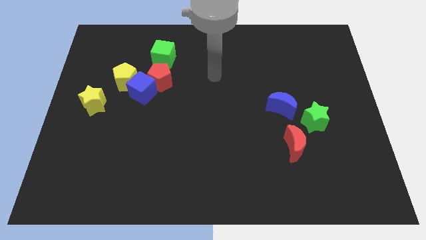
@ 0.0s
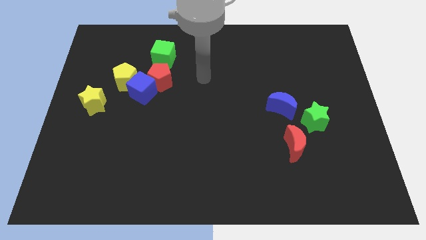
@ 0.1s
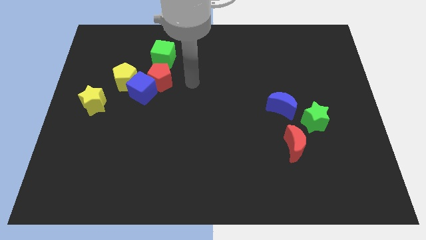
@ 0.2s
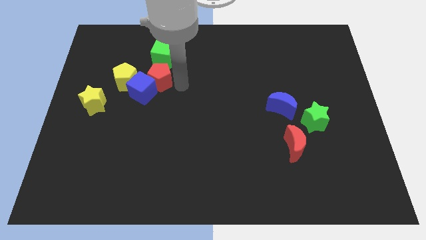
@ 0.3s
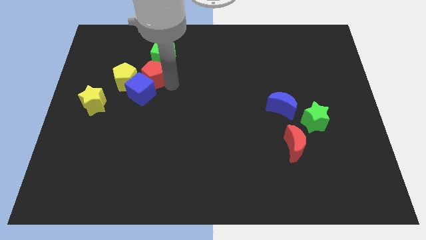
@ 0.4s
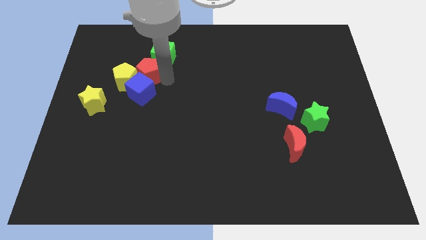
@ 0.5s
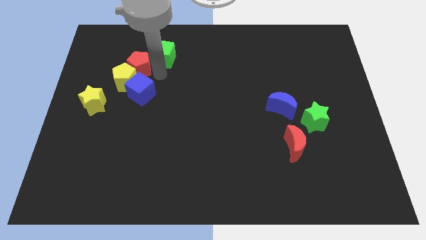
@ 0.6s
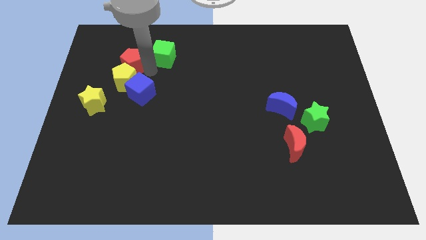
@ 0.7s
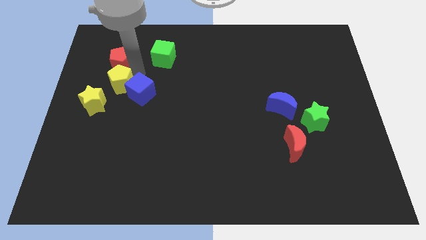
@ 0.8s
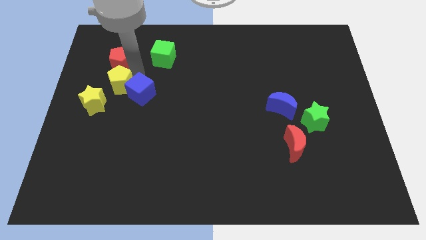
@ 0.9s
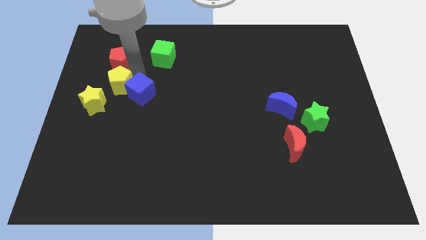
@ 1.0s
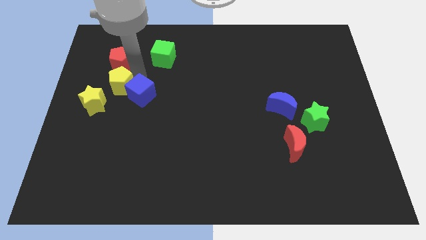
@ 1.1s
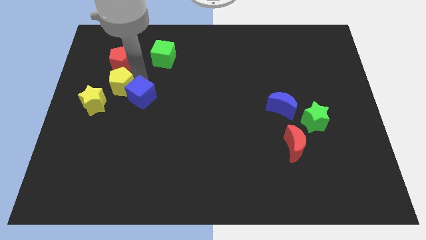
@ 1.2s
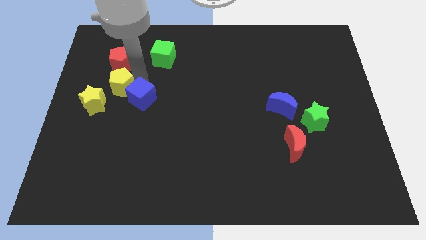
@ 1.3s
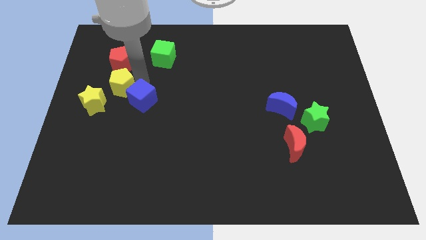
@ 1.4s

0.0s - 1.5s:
separate the blue cube from the red pentagon and yellow pentagon

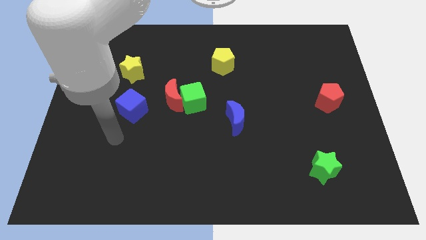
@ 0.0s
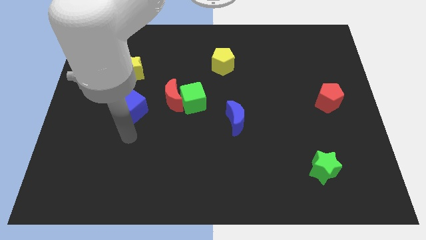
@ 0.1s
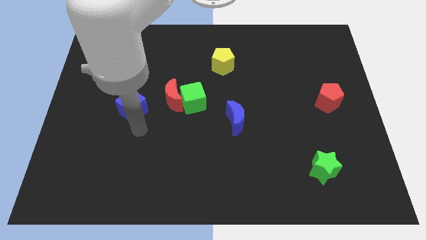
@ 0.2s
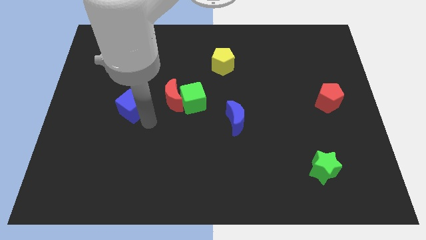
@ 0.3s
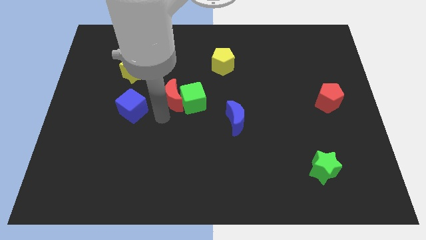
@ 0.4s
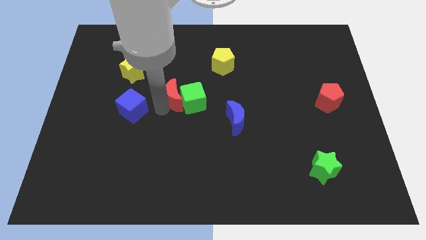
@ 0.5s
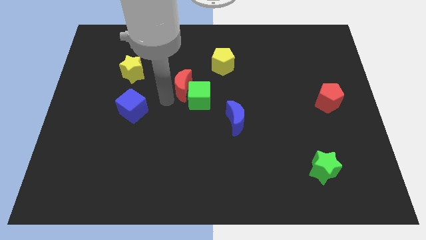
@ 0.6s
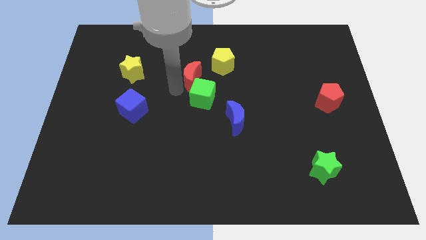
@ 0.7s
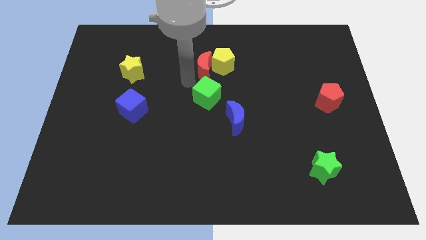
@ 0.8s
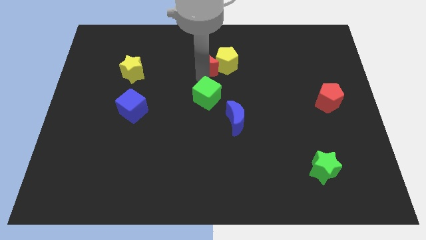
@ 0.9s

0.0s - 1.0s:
separate the green cube from the red moon

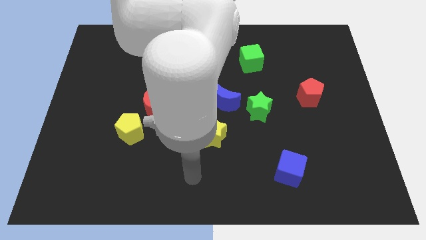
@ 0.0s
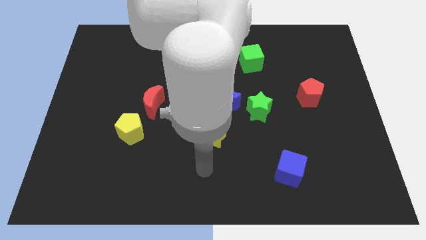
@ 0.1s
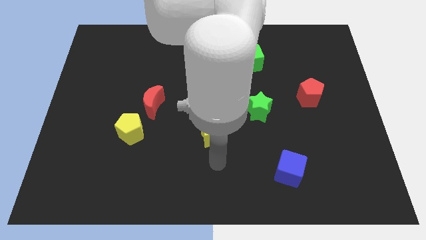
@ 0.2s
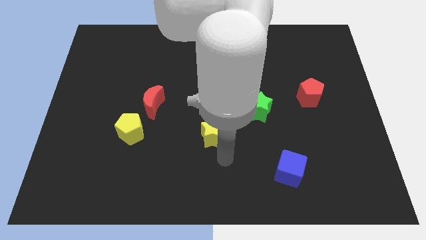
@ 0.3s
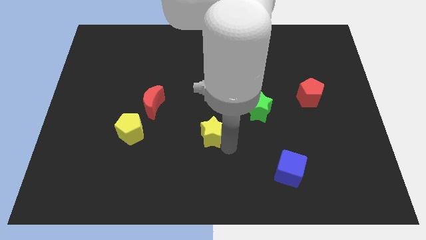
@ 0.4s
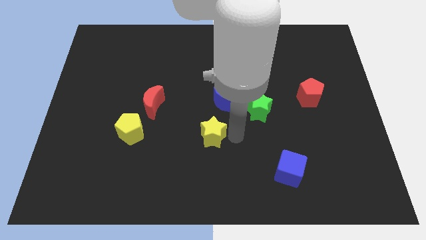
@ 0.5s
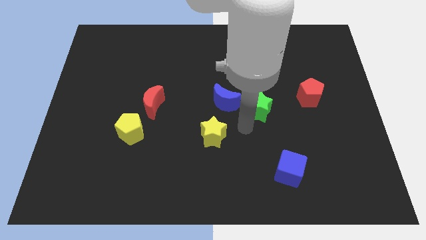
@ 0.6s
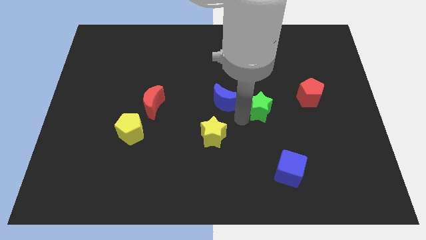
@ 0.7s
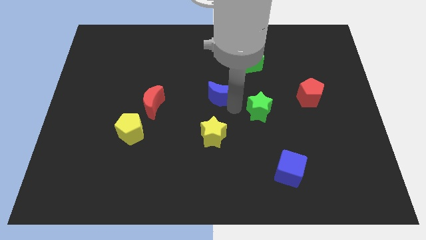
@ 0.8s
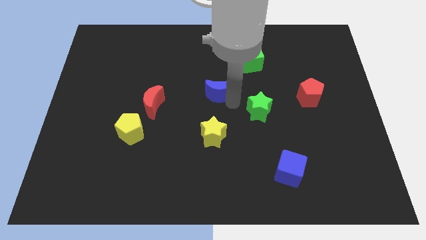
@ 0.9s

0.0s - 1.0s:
move the green star away from the blue moon

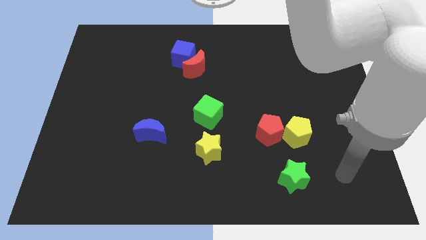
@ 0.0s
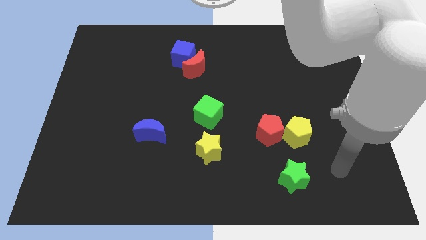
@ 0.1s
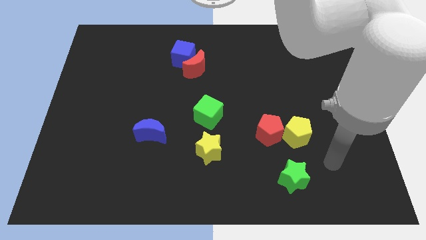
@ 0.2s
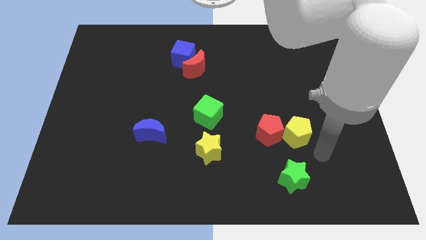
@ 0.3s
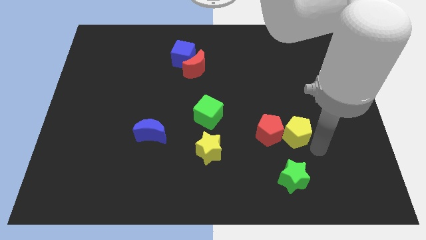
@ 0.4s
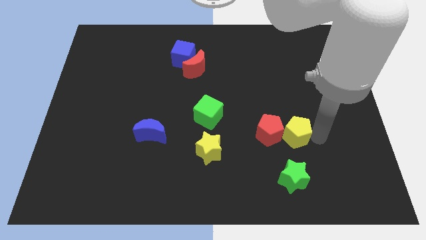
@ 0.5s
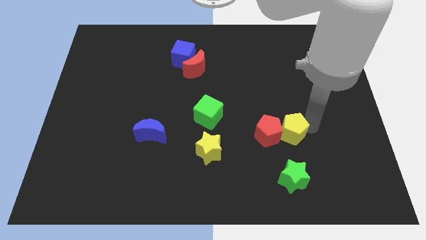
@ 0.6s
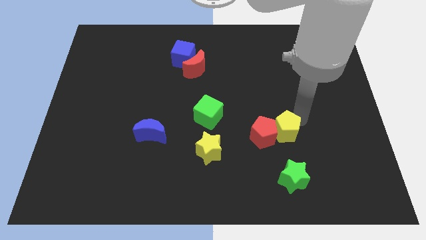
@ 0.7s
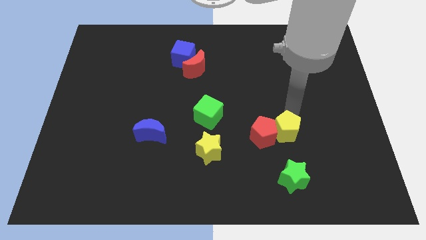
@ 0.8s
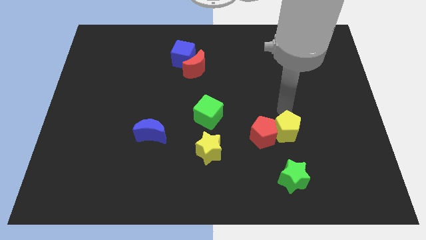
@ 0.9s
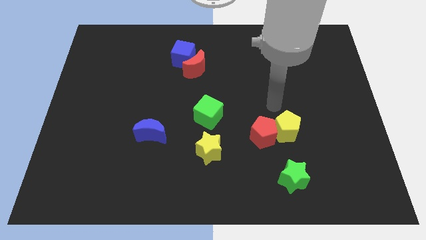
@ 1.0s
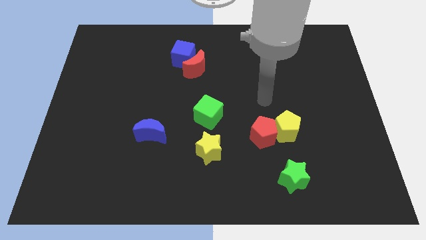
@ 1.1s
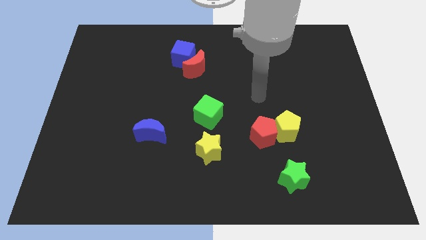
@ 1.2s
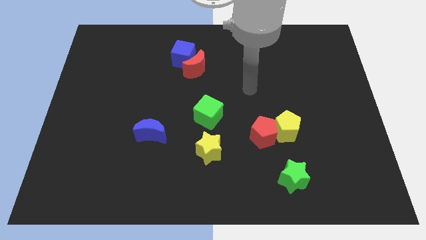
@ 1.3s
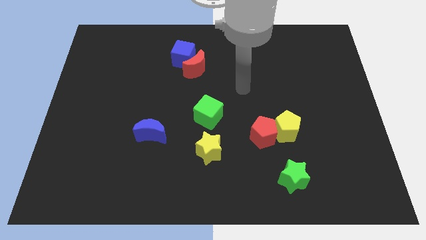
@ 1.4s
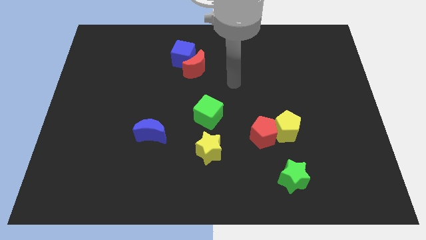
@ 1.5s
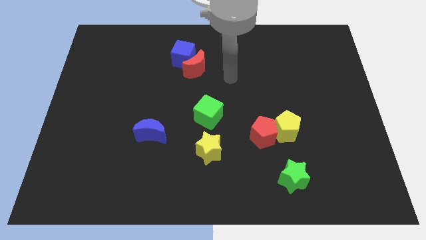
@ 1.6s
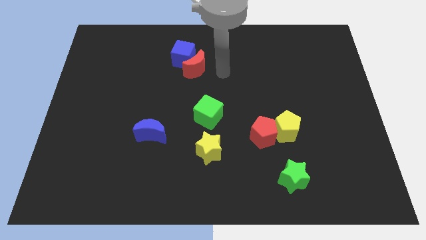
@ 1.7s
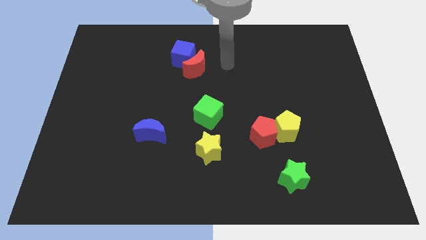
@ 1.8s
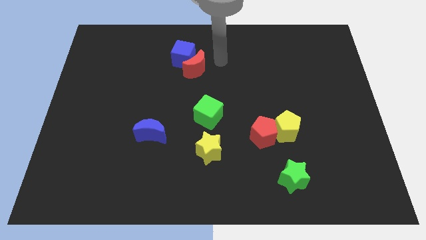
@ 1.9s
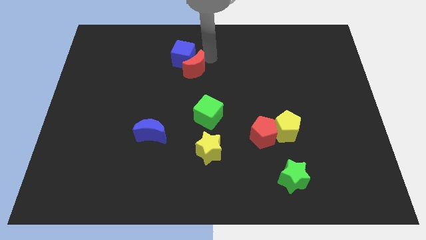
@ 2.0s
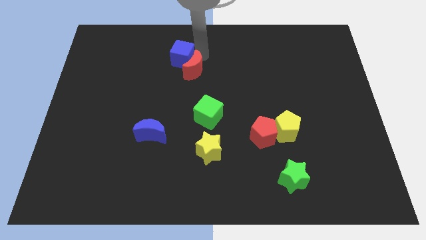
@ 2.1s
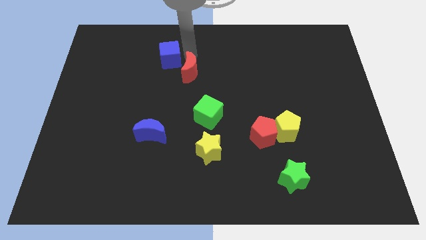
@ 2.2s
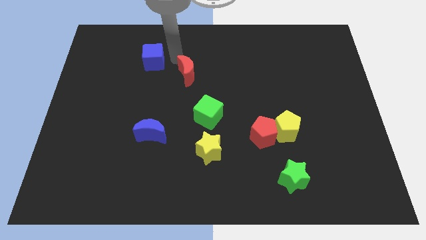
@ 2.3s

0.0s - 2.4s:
separate the red moon from the blue cube

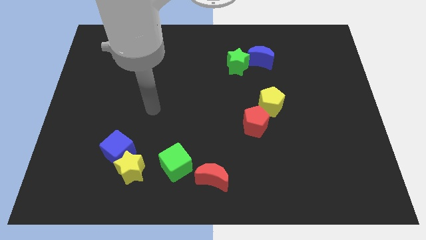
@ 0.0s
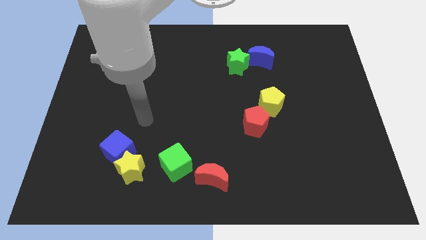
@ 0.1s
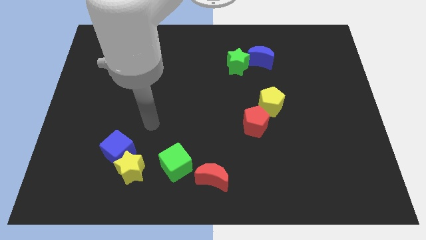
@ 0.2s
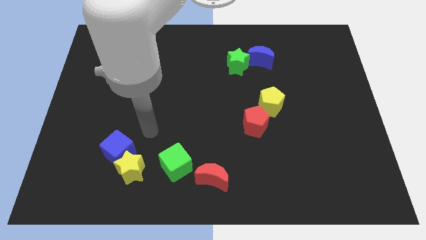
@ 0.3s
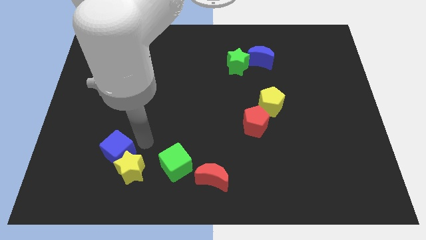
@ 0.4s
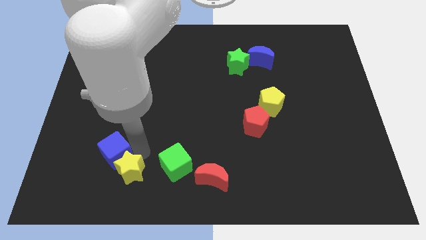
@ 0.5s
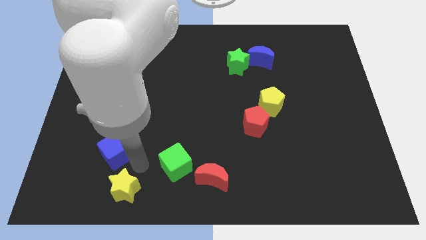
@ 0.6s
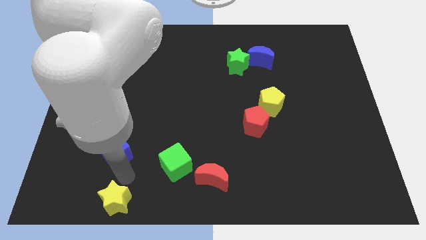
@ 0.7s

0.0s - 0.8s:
move the blue cube away from the yellow star

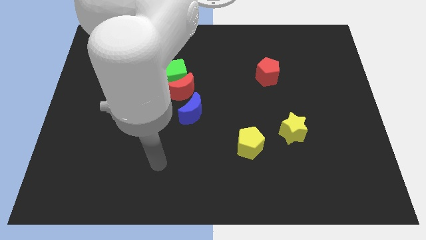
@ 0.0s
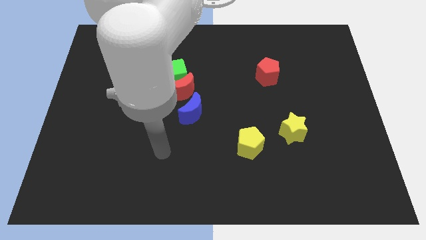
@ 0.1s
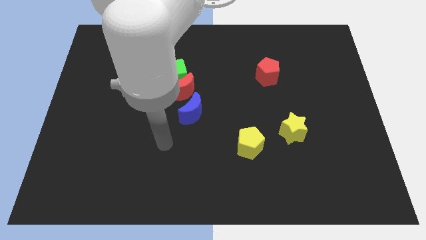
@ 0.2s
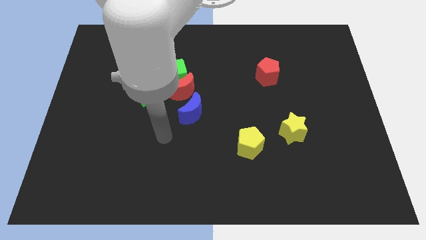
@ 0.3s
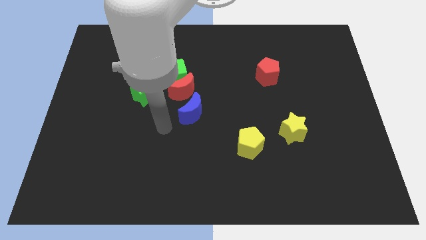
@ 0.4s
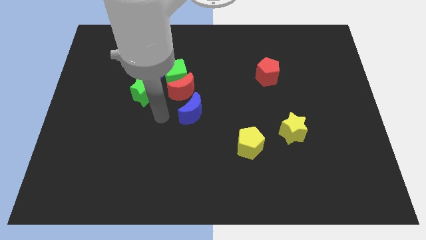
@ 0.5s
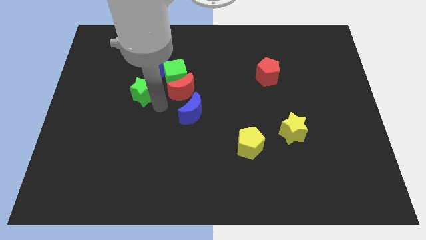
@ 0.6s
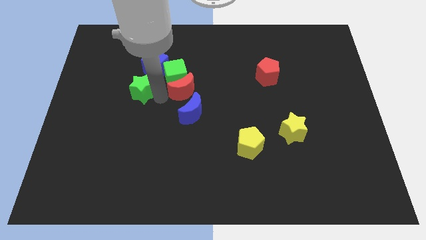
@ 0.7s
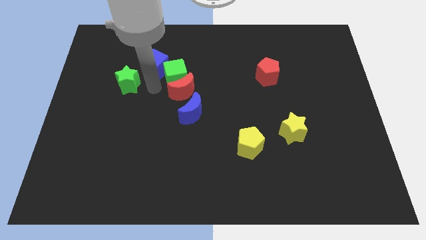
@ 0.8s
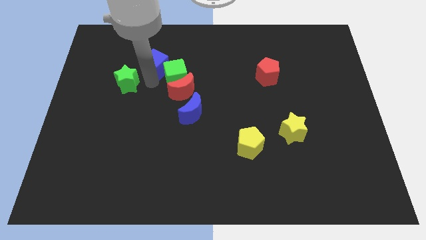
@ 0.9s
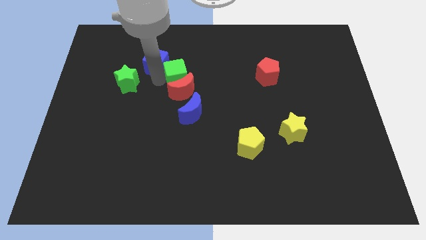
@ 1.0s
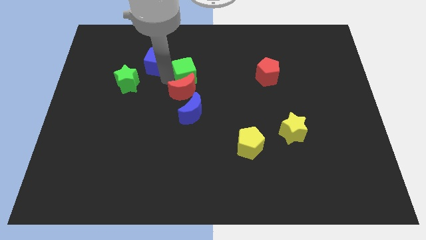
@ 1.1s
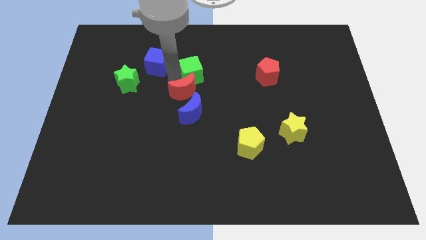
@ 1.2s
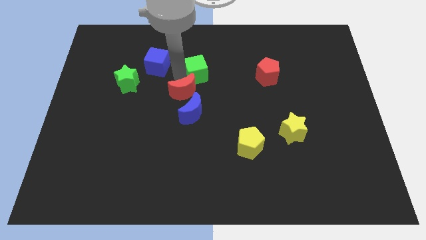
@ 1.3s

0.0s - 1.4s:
move the green cube away from the group

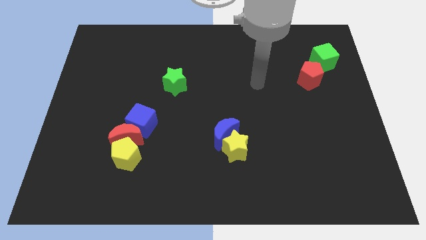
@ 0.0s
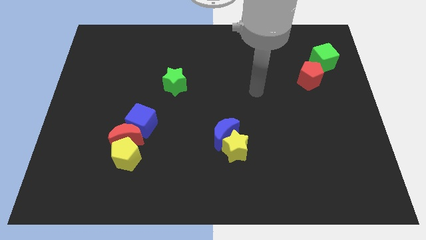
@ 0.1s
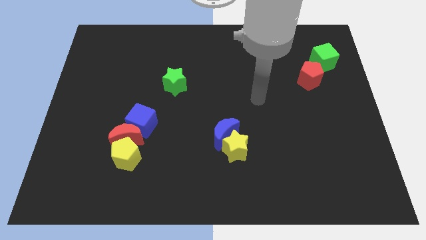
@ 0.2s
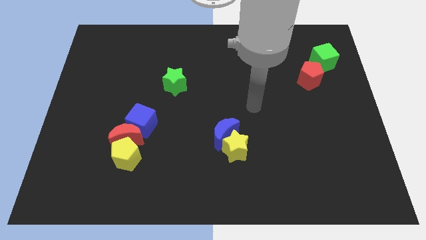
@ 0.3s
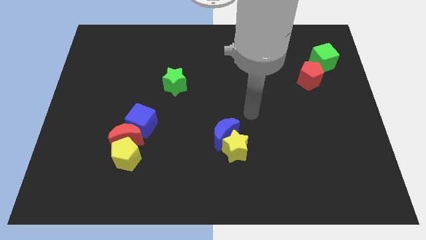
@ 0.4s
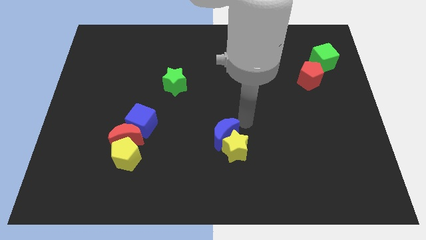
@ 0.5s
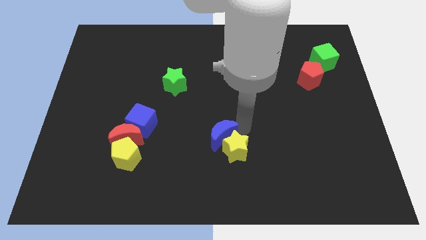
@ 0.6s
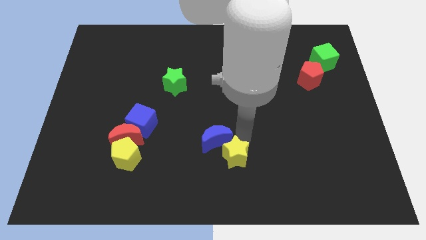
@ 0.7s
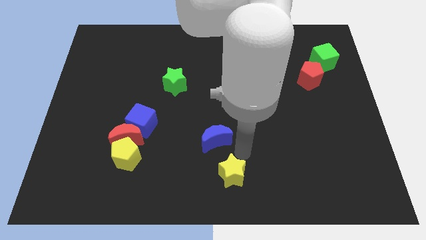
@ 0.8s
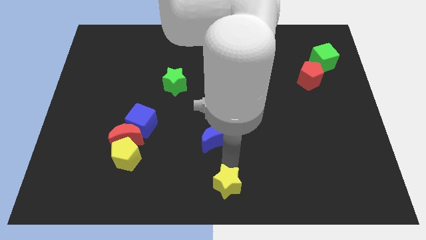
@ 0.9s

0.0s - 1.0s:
pull the blue moon apart from the yellow star

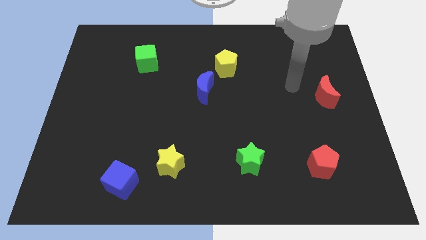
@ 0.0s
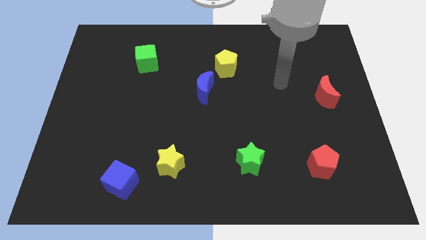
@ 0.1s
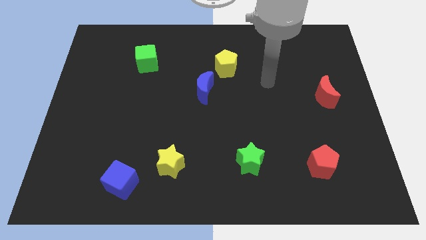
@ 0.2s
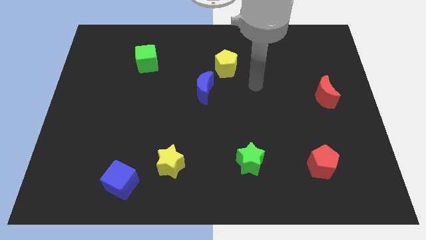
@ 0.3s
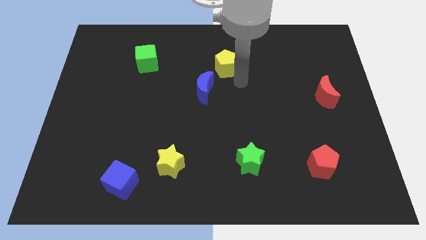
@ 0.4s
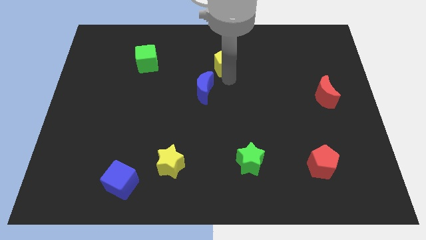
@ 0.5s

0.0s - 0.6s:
move the blue moon away from the yellow pentagon
